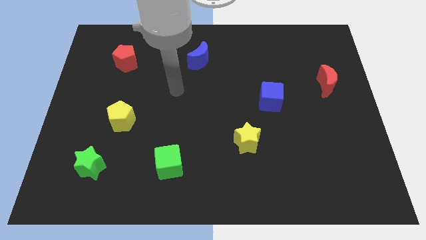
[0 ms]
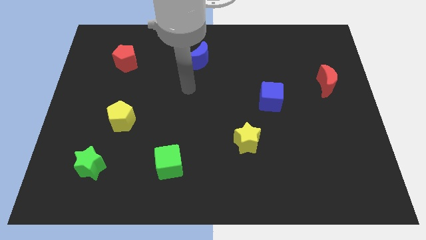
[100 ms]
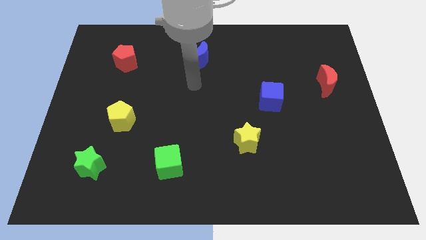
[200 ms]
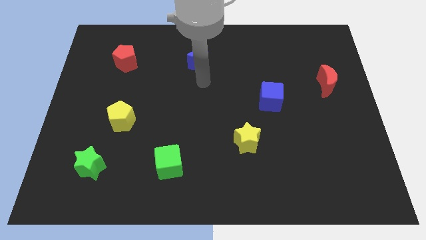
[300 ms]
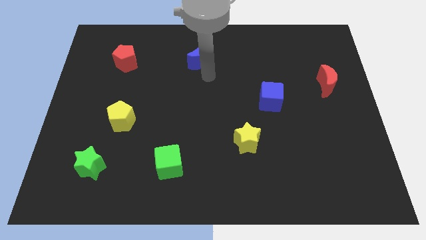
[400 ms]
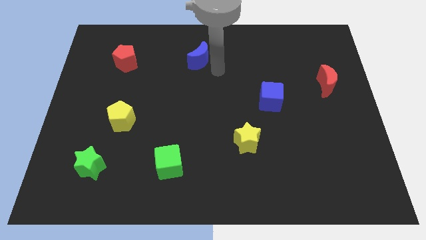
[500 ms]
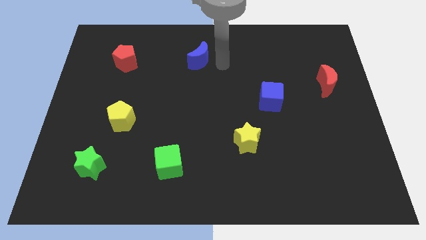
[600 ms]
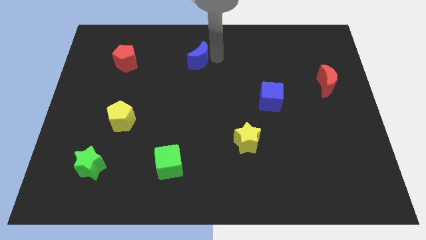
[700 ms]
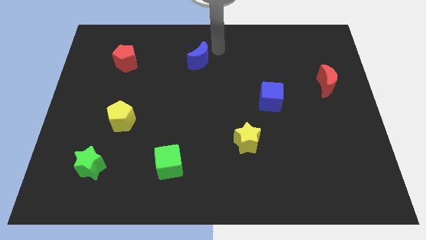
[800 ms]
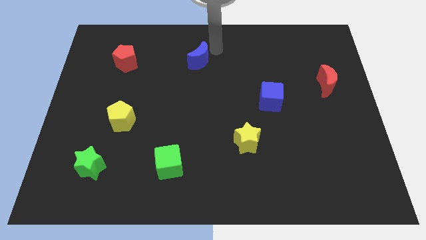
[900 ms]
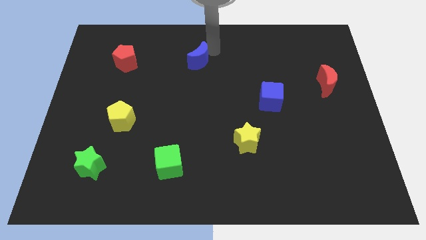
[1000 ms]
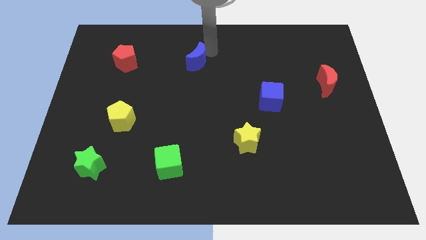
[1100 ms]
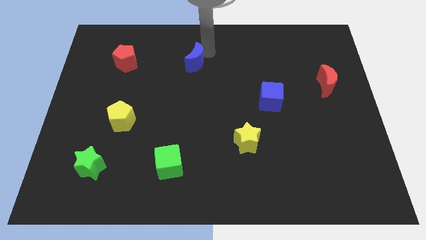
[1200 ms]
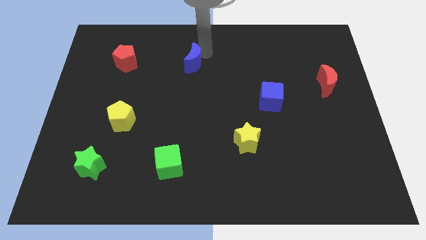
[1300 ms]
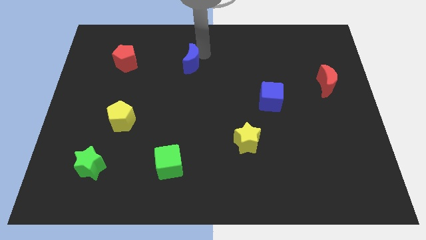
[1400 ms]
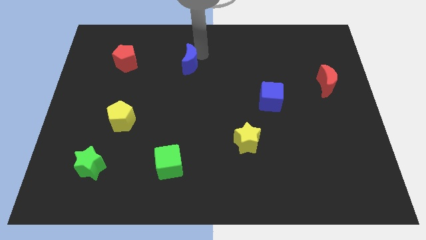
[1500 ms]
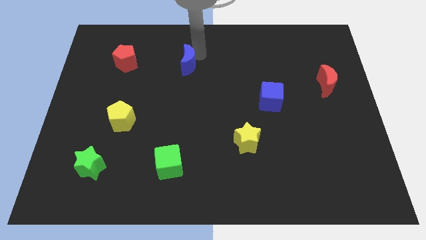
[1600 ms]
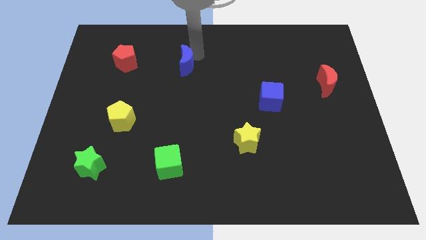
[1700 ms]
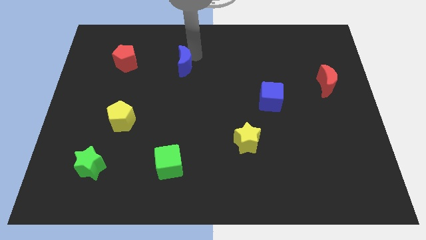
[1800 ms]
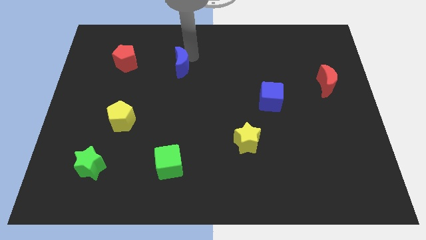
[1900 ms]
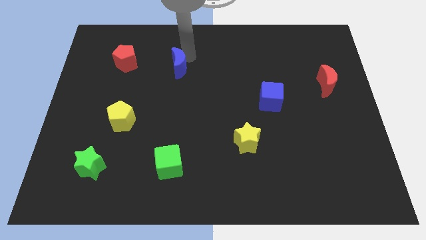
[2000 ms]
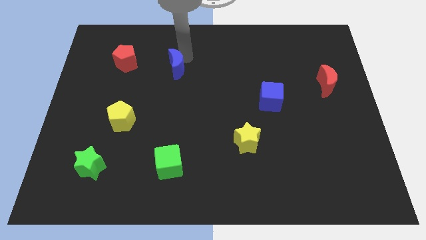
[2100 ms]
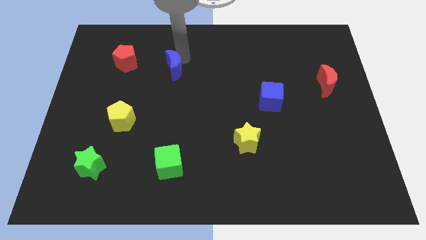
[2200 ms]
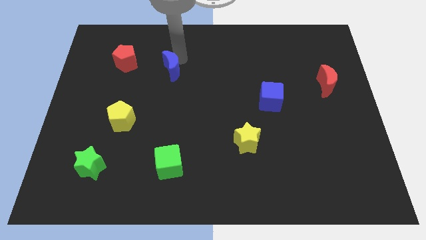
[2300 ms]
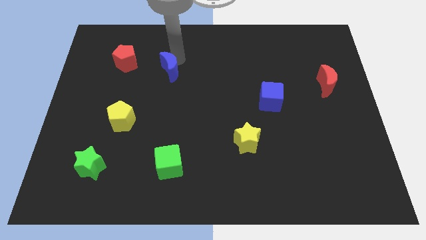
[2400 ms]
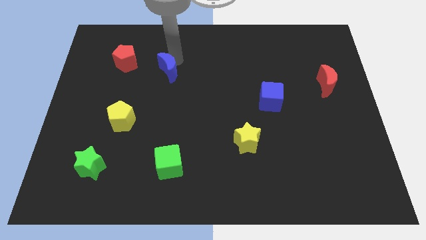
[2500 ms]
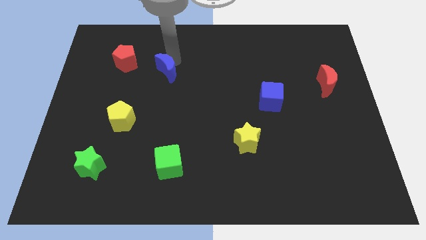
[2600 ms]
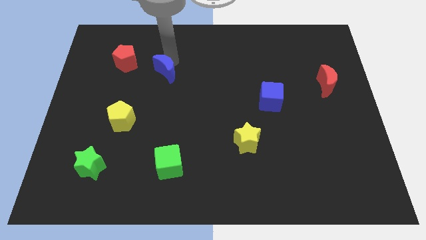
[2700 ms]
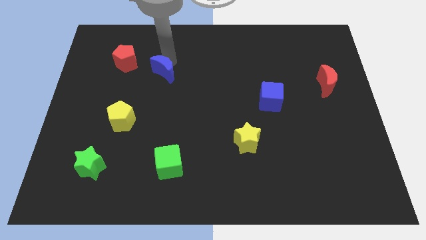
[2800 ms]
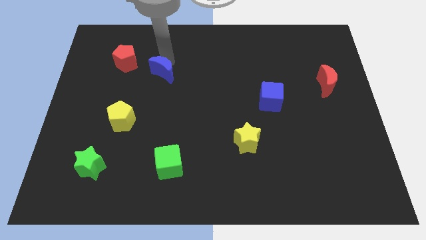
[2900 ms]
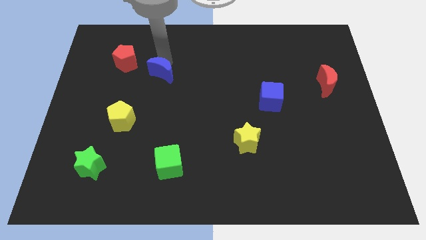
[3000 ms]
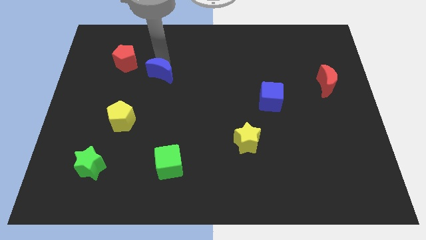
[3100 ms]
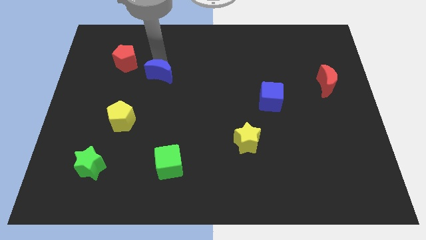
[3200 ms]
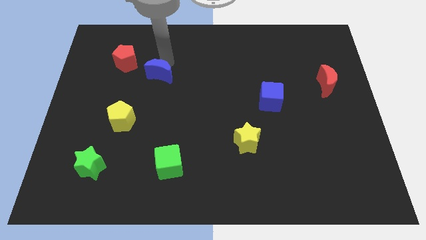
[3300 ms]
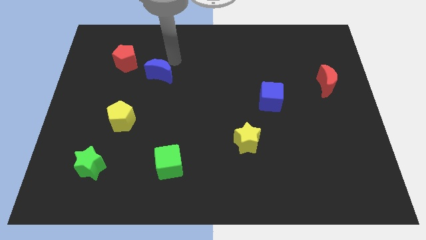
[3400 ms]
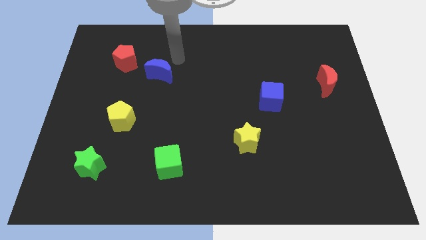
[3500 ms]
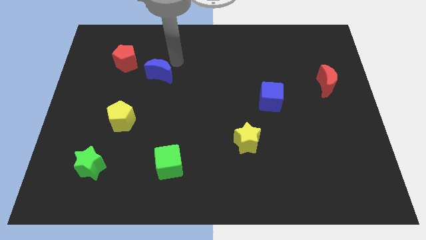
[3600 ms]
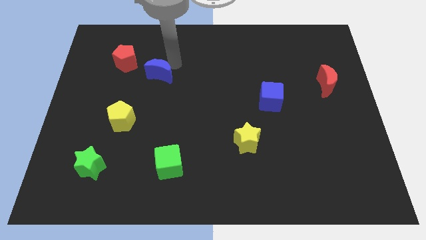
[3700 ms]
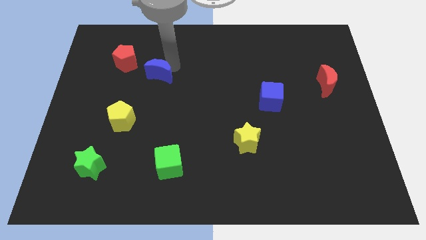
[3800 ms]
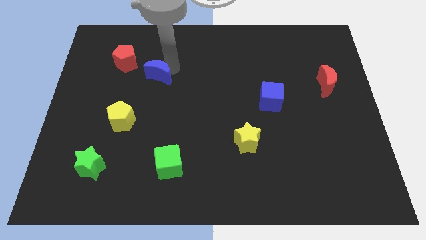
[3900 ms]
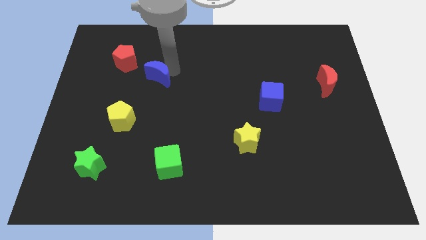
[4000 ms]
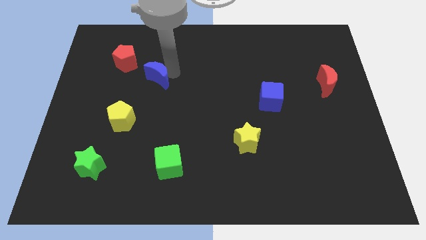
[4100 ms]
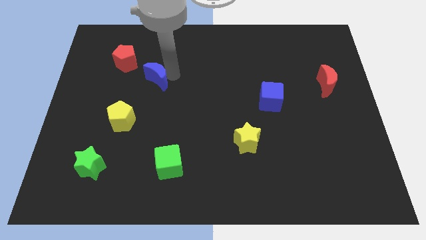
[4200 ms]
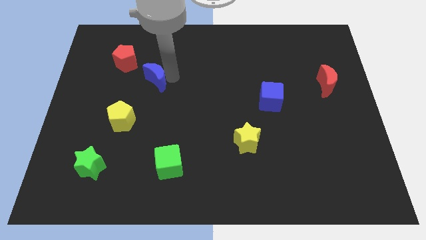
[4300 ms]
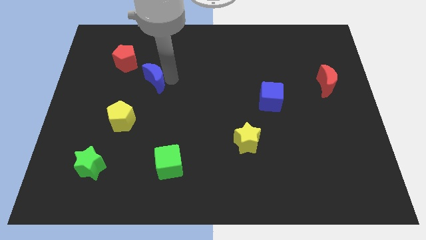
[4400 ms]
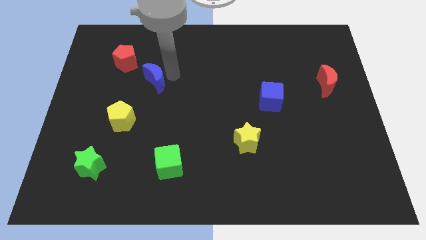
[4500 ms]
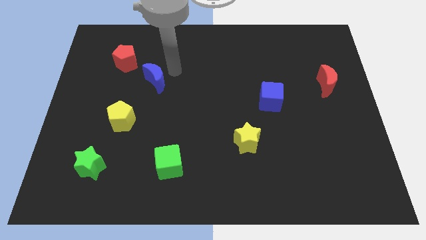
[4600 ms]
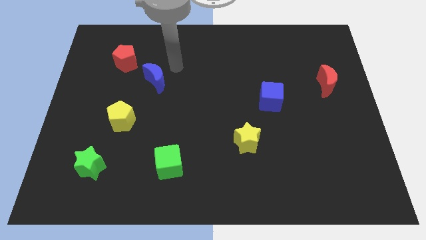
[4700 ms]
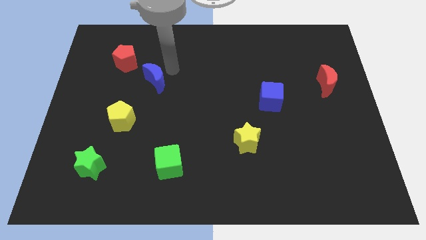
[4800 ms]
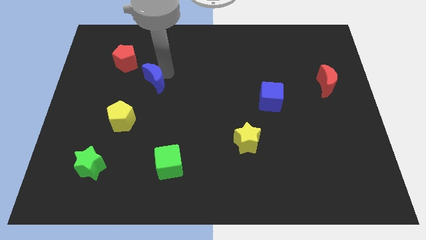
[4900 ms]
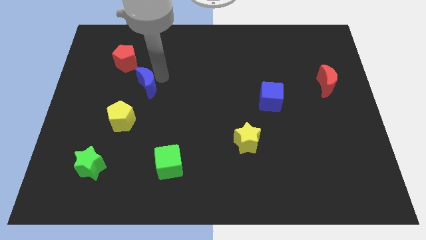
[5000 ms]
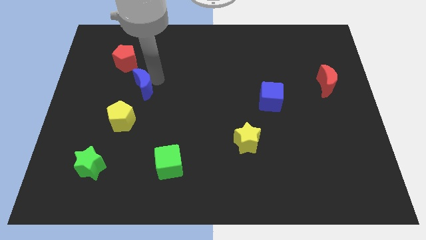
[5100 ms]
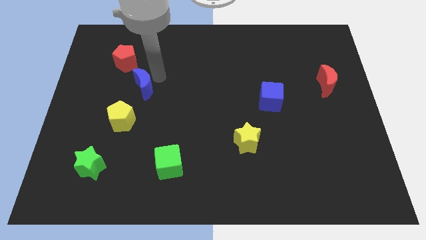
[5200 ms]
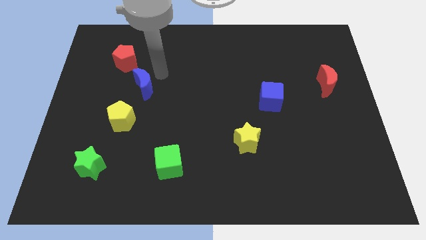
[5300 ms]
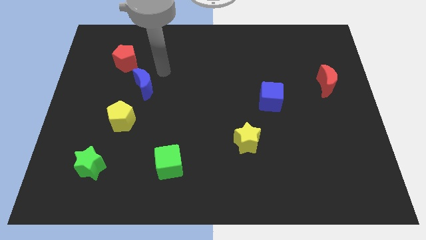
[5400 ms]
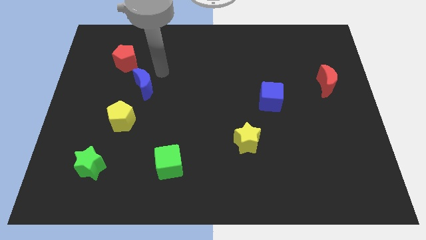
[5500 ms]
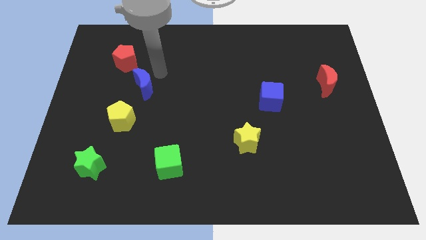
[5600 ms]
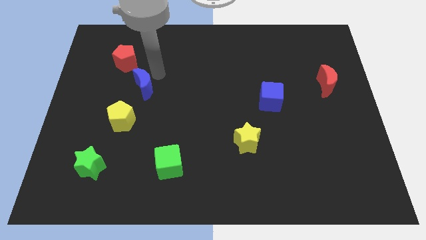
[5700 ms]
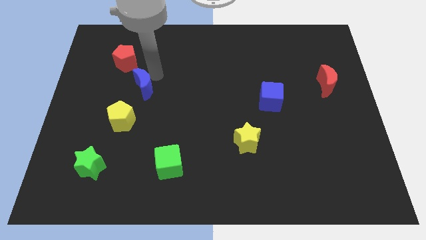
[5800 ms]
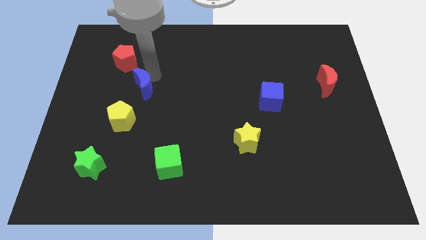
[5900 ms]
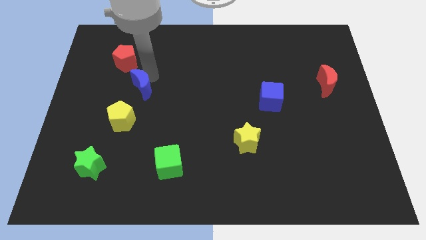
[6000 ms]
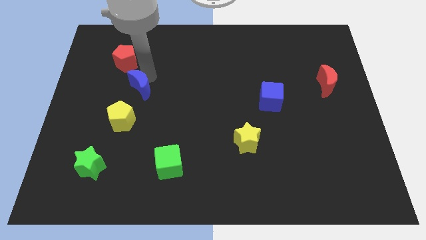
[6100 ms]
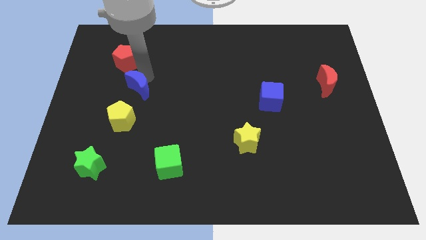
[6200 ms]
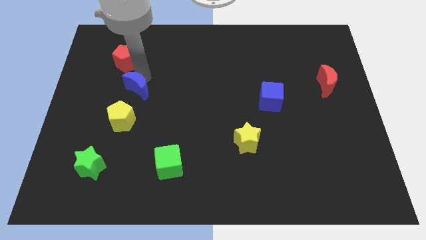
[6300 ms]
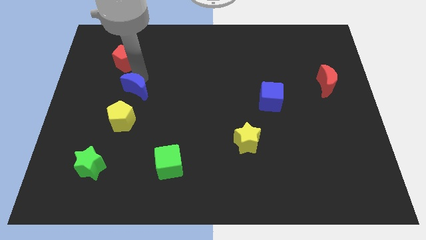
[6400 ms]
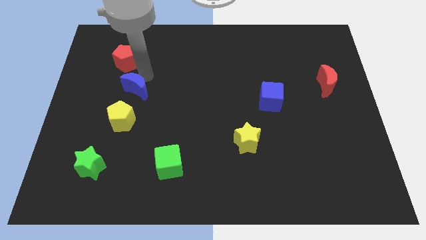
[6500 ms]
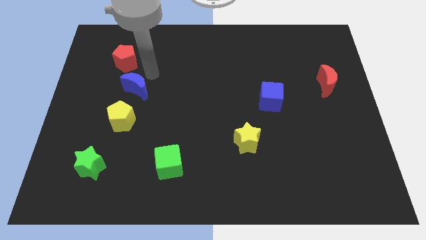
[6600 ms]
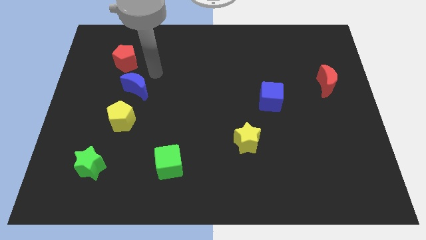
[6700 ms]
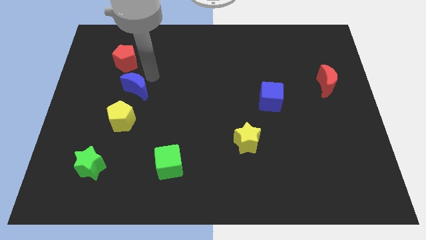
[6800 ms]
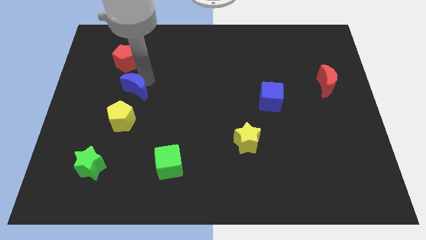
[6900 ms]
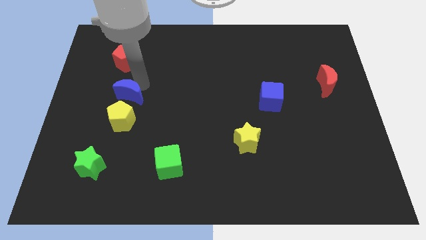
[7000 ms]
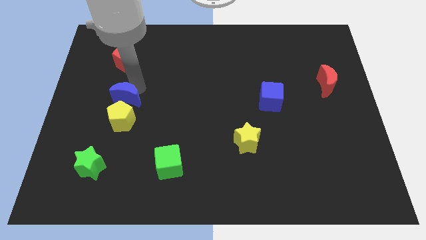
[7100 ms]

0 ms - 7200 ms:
move the blue moon down and then to the left

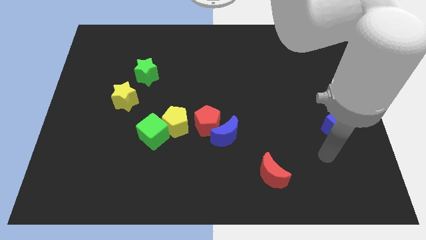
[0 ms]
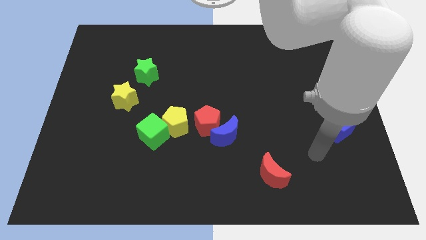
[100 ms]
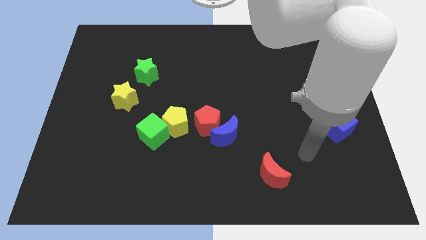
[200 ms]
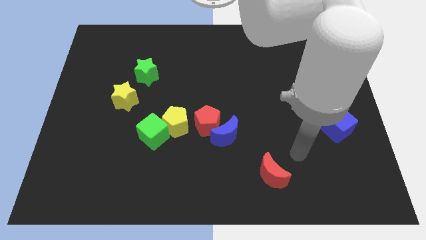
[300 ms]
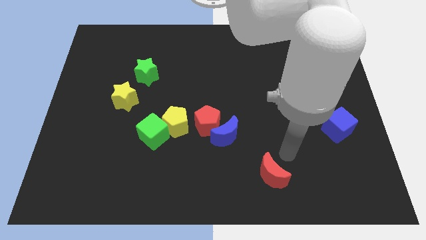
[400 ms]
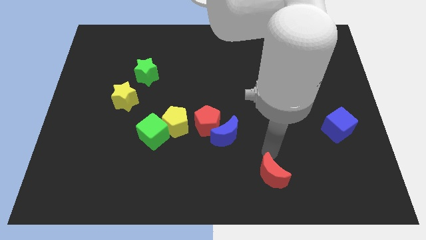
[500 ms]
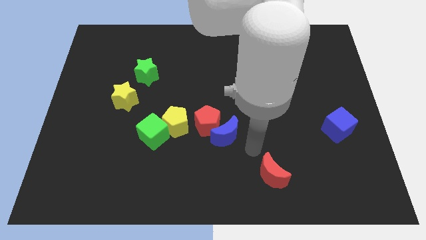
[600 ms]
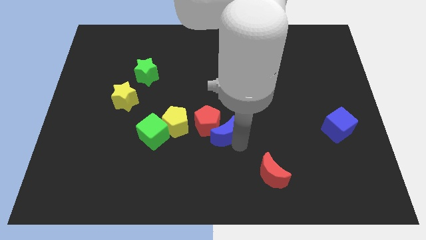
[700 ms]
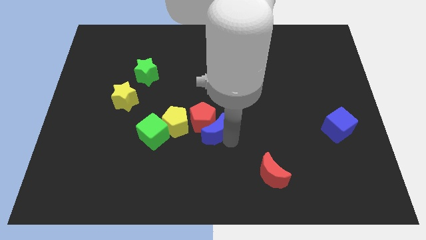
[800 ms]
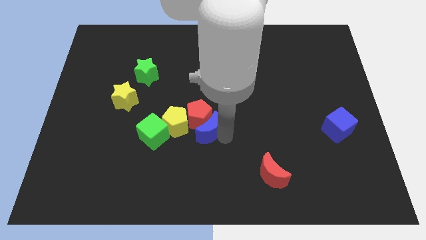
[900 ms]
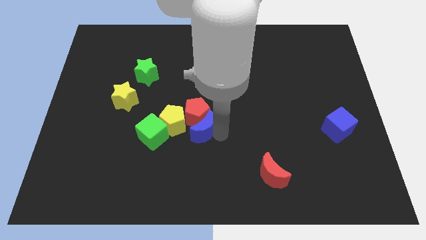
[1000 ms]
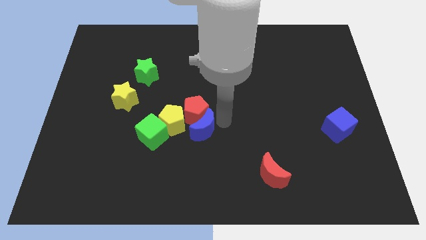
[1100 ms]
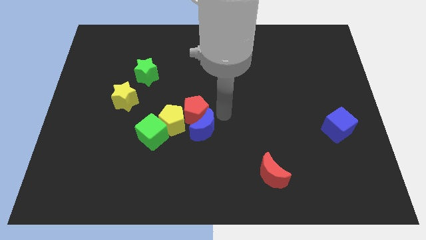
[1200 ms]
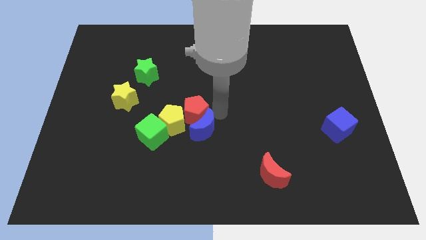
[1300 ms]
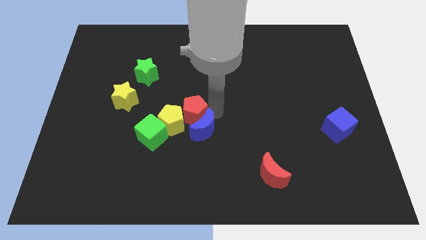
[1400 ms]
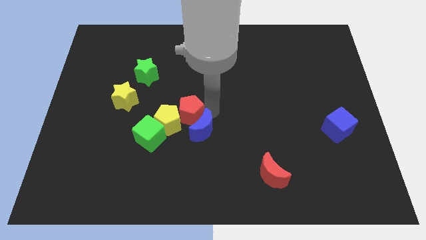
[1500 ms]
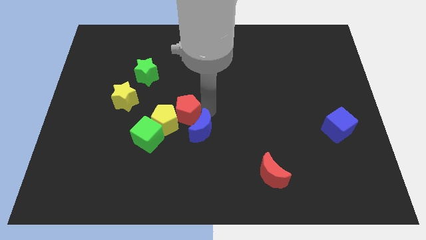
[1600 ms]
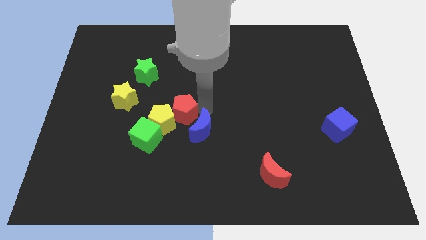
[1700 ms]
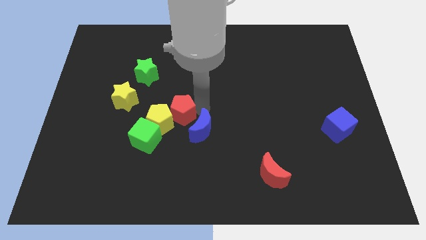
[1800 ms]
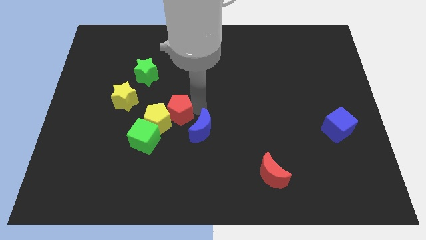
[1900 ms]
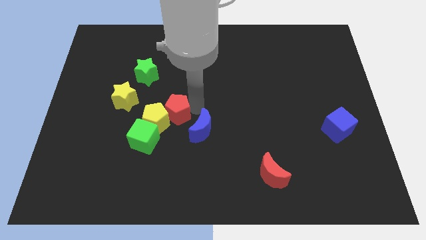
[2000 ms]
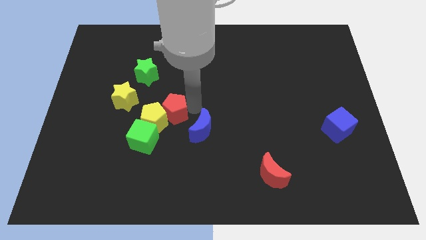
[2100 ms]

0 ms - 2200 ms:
slightly push the red pentagon left
